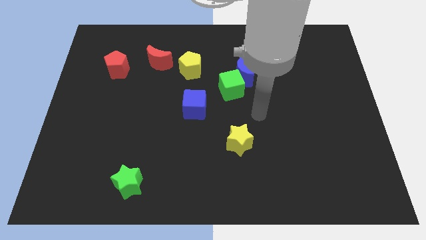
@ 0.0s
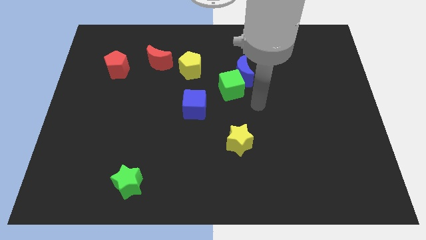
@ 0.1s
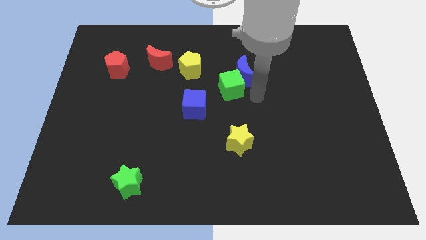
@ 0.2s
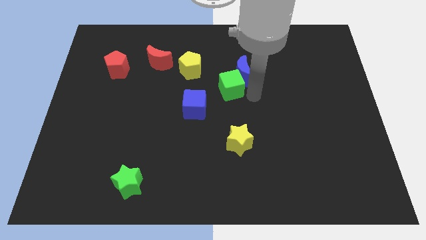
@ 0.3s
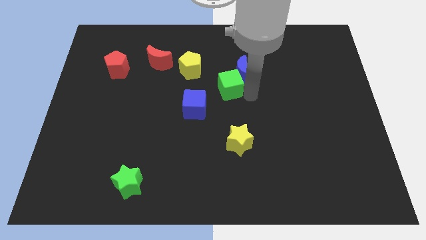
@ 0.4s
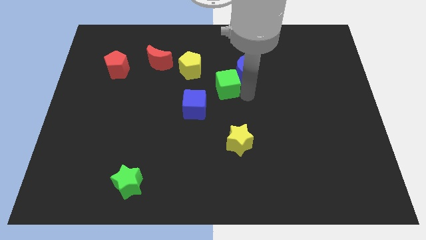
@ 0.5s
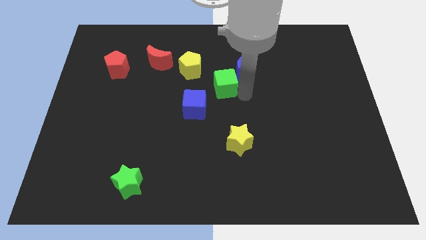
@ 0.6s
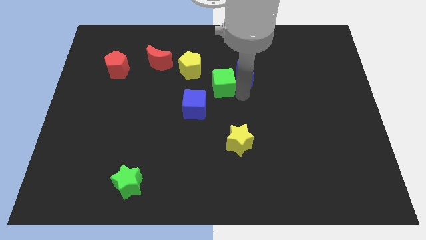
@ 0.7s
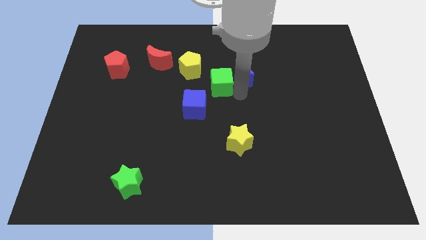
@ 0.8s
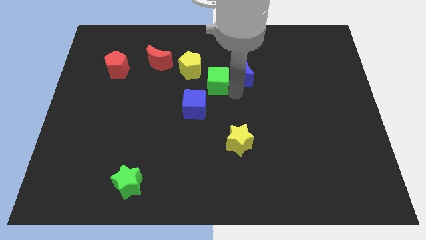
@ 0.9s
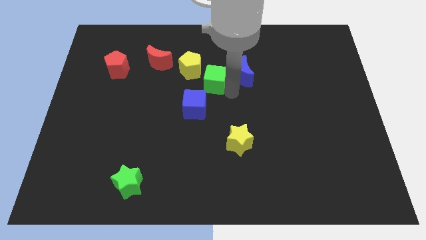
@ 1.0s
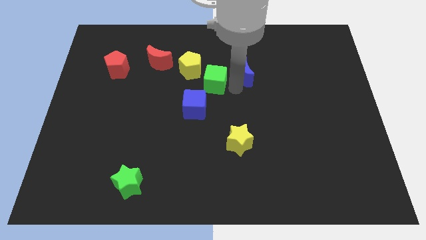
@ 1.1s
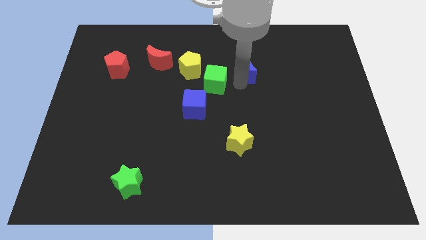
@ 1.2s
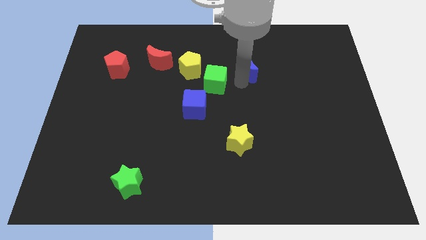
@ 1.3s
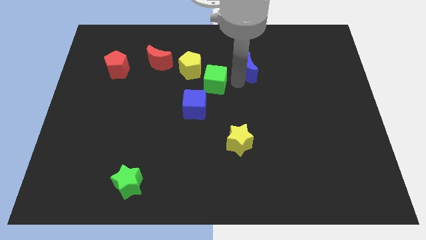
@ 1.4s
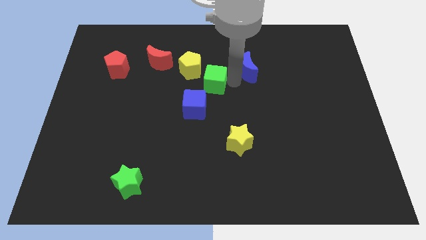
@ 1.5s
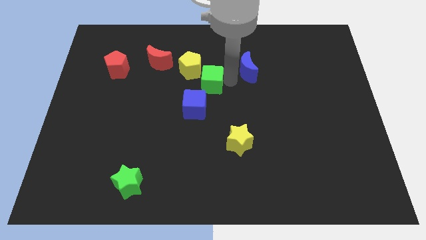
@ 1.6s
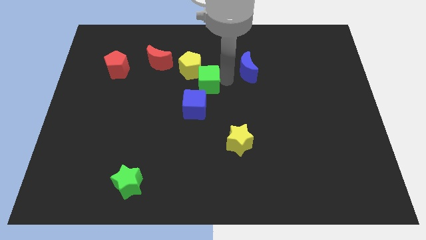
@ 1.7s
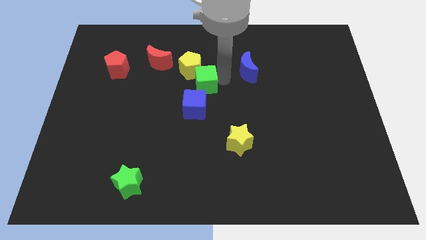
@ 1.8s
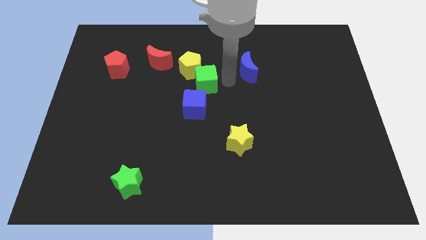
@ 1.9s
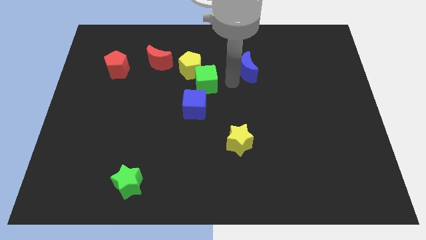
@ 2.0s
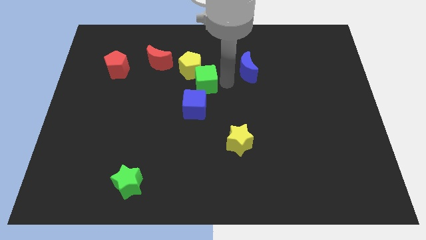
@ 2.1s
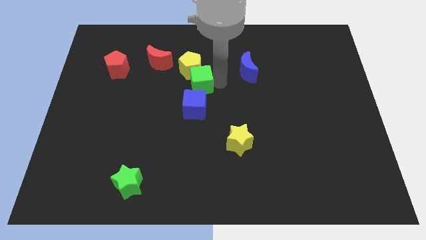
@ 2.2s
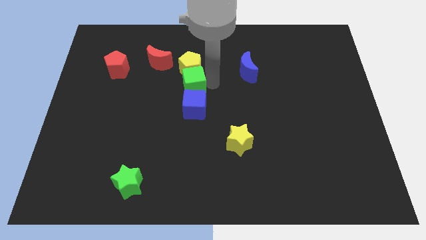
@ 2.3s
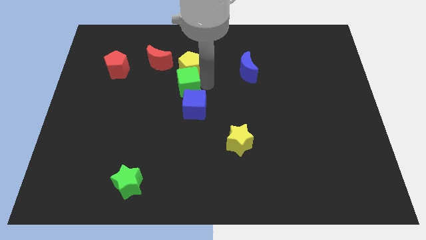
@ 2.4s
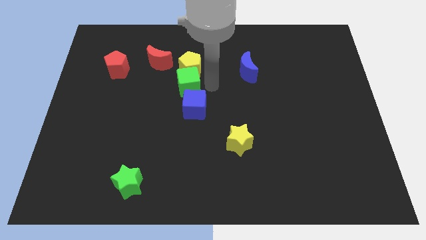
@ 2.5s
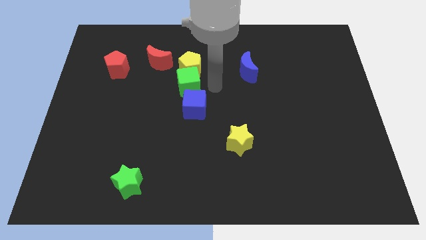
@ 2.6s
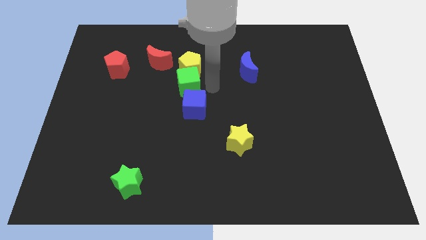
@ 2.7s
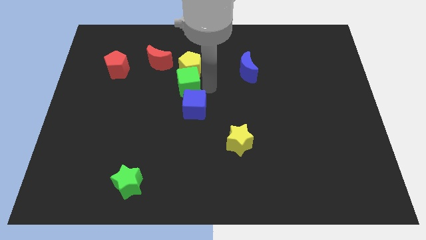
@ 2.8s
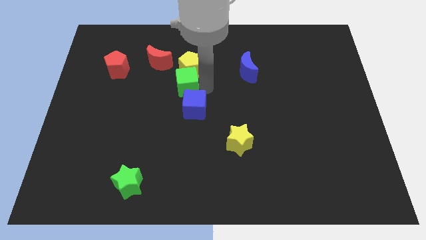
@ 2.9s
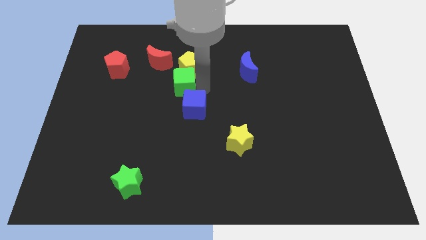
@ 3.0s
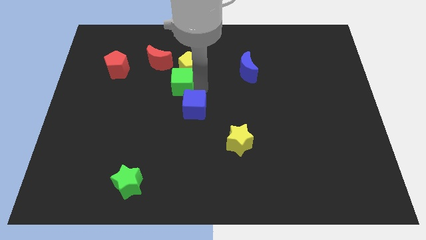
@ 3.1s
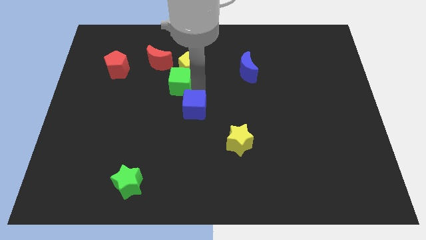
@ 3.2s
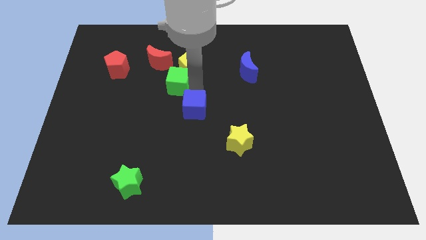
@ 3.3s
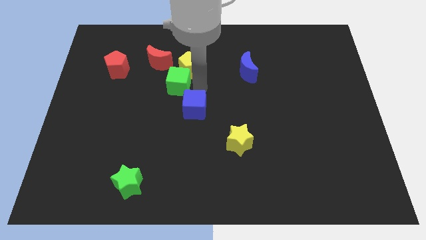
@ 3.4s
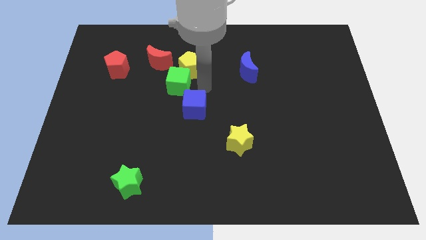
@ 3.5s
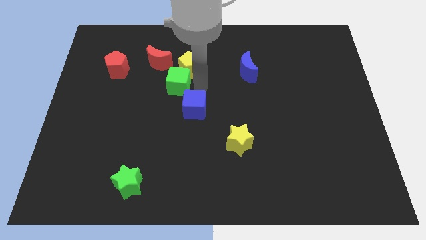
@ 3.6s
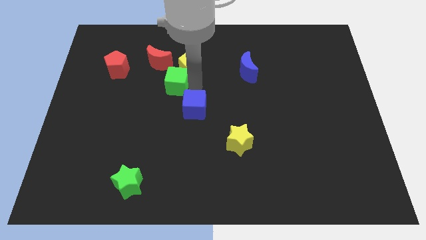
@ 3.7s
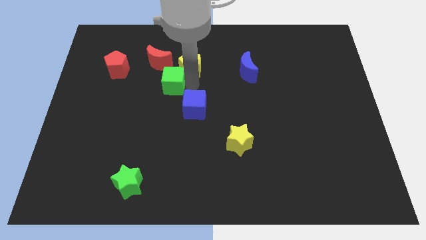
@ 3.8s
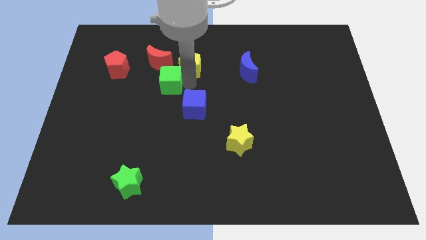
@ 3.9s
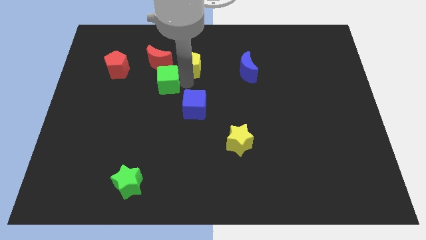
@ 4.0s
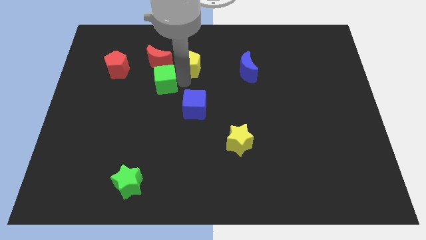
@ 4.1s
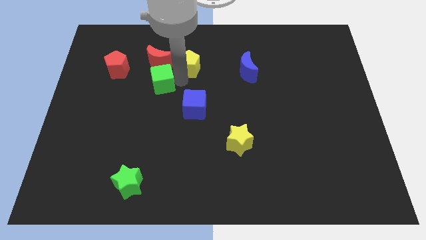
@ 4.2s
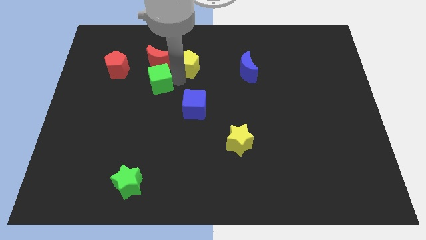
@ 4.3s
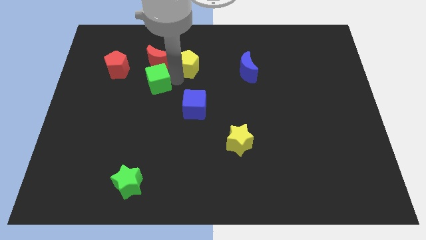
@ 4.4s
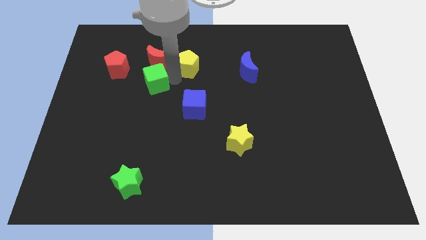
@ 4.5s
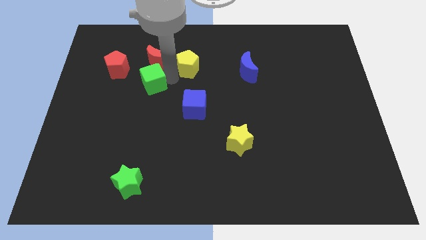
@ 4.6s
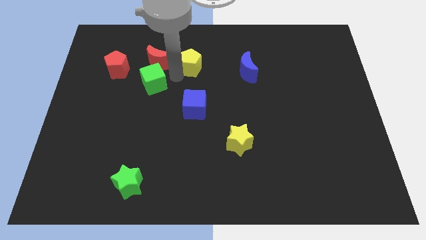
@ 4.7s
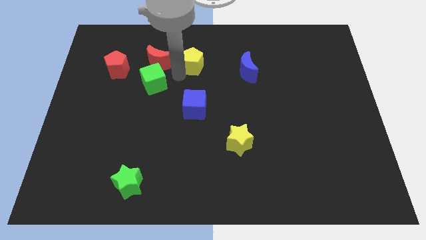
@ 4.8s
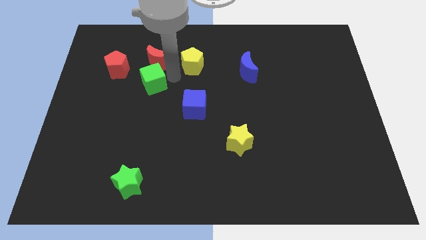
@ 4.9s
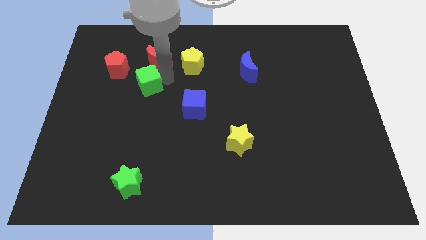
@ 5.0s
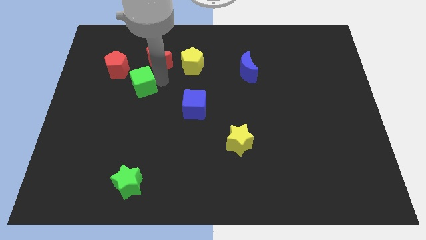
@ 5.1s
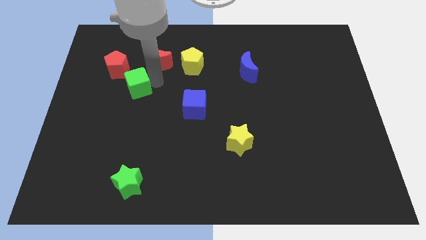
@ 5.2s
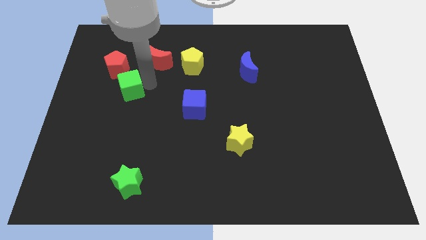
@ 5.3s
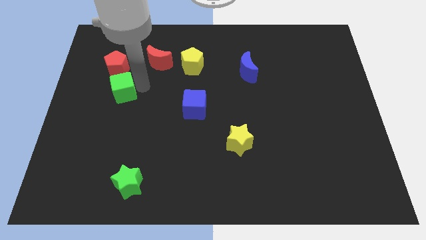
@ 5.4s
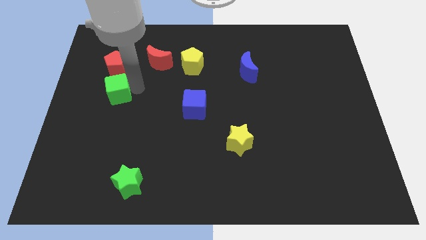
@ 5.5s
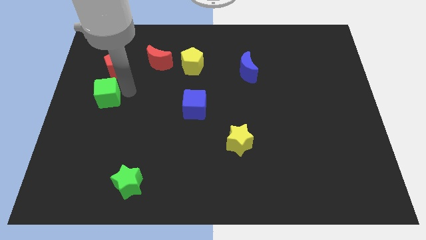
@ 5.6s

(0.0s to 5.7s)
move the green cube to the left side
